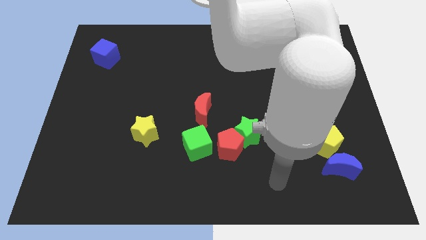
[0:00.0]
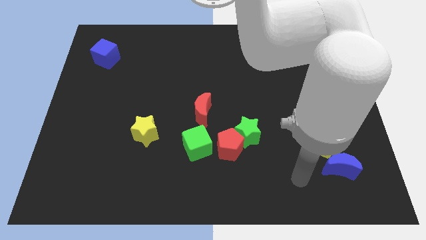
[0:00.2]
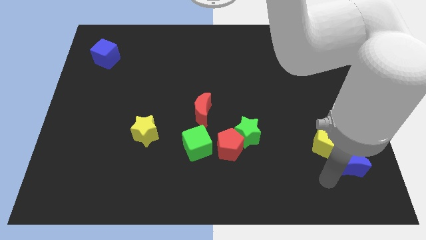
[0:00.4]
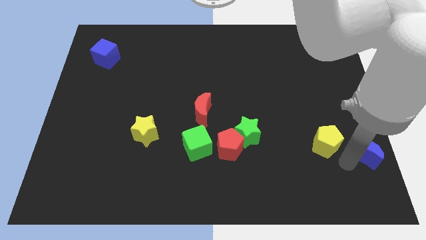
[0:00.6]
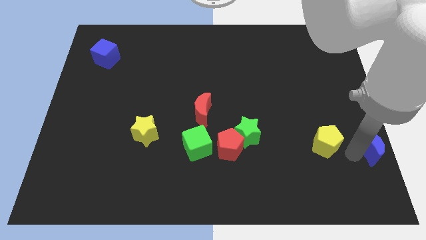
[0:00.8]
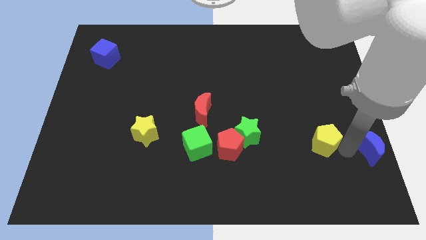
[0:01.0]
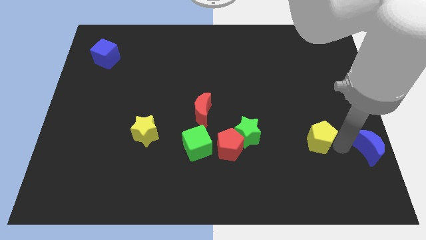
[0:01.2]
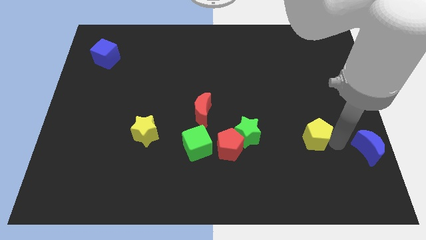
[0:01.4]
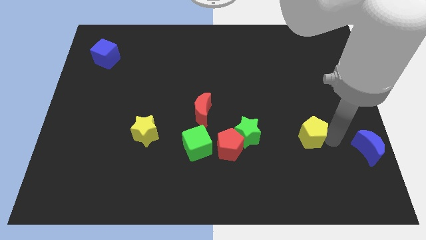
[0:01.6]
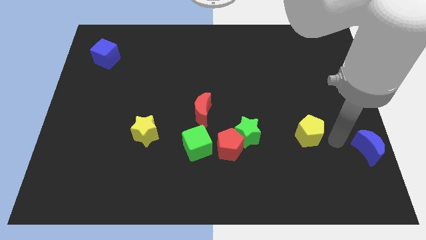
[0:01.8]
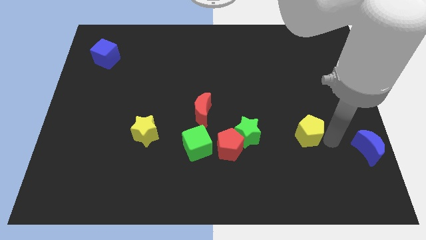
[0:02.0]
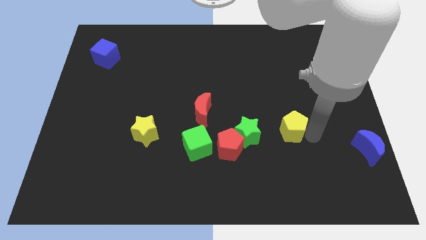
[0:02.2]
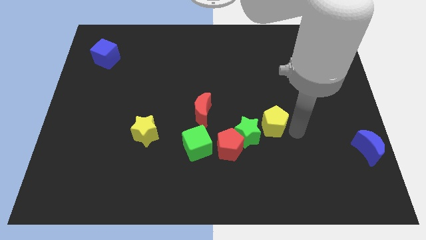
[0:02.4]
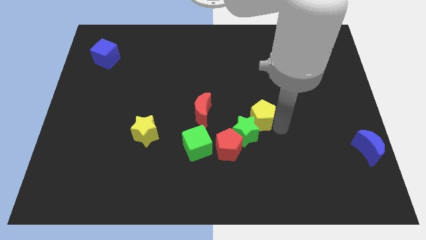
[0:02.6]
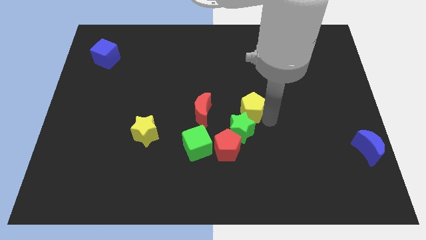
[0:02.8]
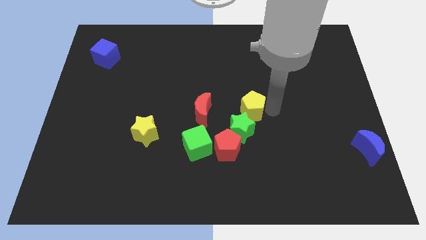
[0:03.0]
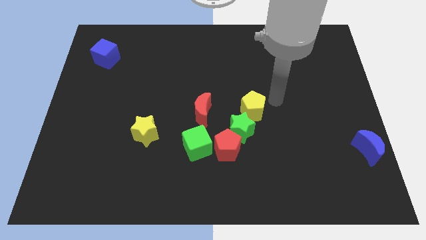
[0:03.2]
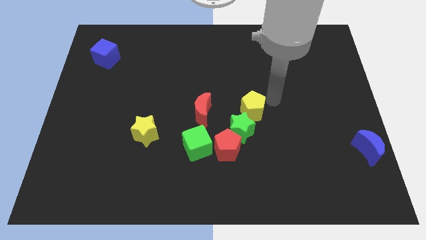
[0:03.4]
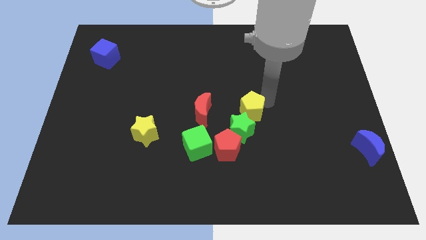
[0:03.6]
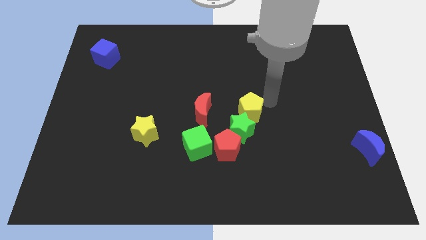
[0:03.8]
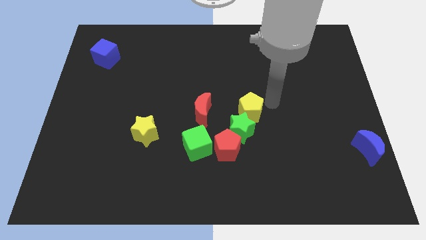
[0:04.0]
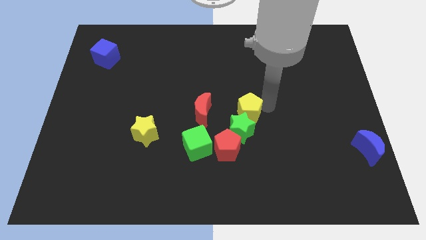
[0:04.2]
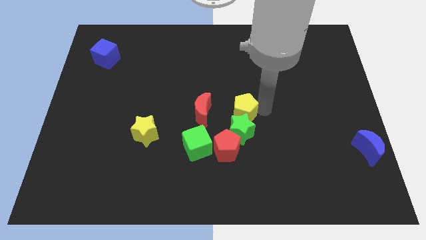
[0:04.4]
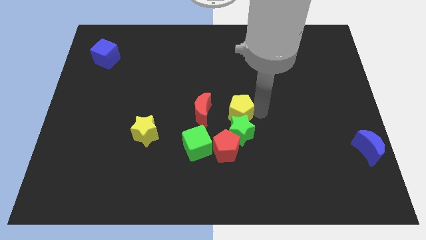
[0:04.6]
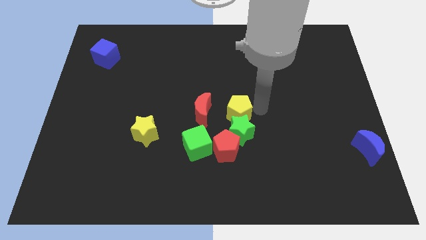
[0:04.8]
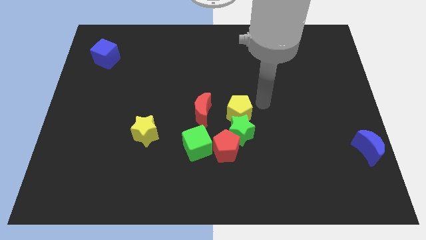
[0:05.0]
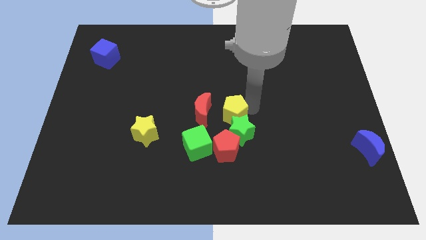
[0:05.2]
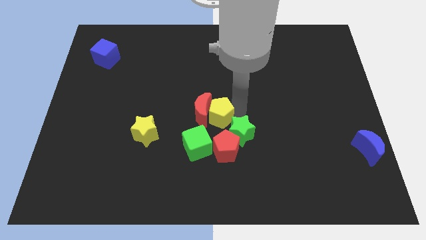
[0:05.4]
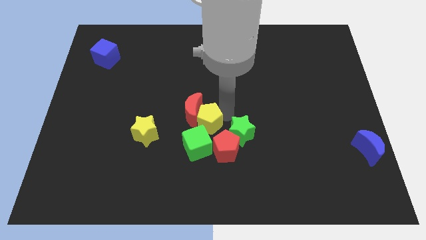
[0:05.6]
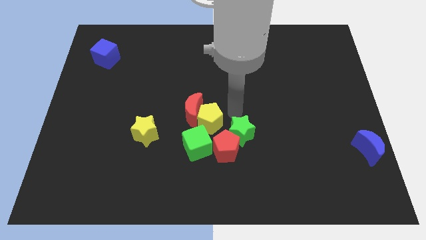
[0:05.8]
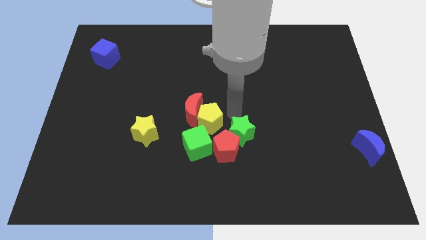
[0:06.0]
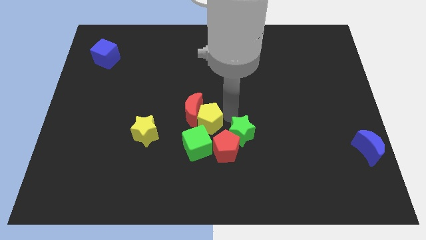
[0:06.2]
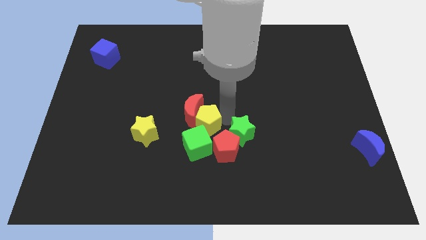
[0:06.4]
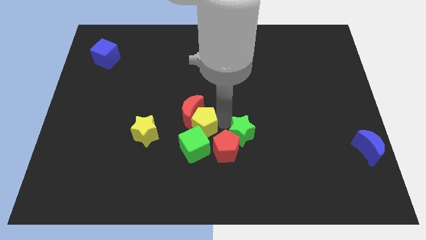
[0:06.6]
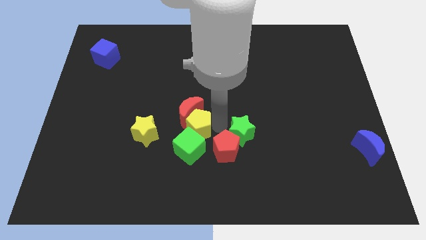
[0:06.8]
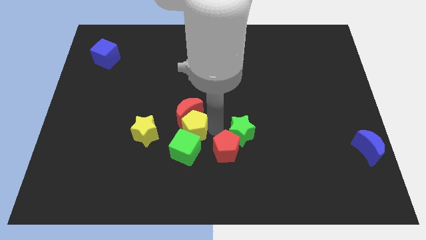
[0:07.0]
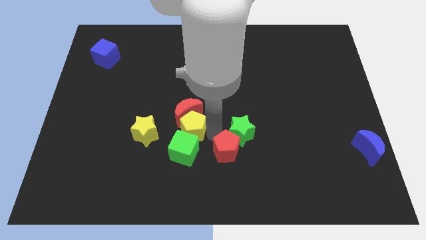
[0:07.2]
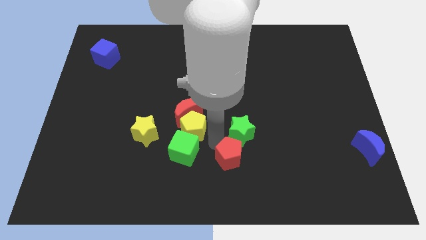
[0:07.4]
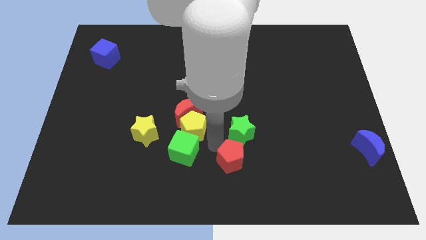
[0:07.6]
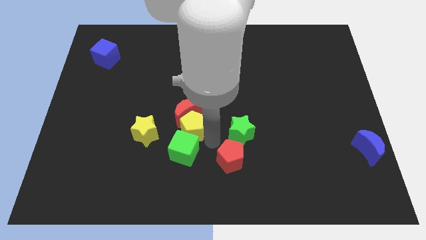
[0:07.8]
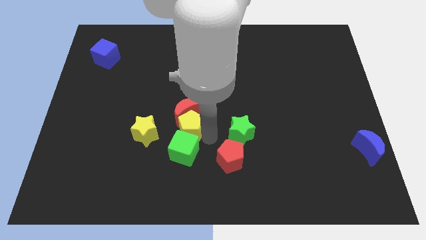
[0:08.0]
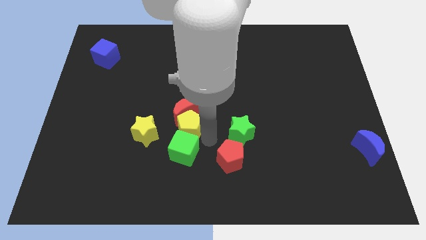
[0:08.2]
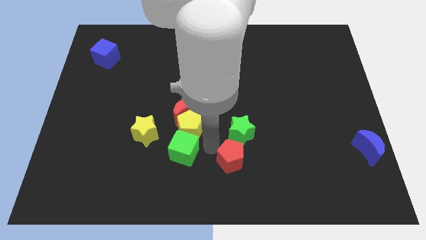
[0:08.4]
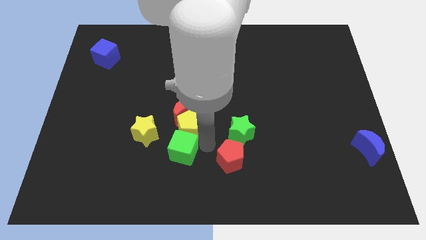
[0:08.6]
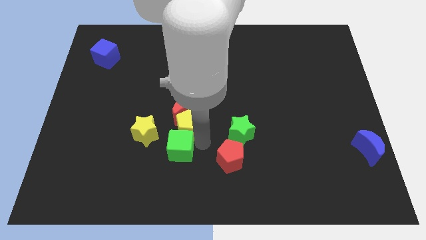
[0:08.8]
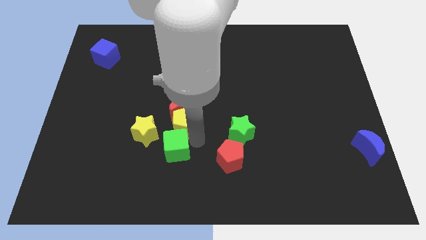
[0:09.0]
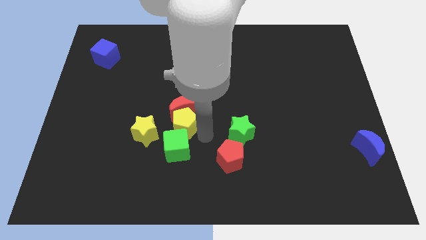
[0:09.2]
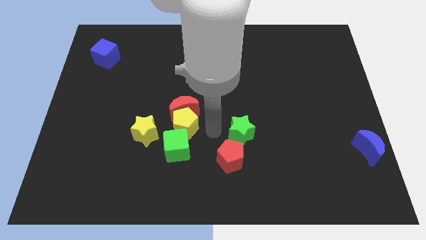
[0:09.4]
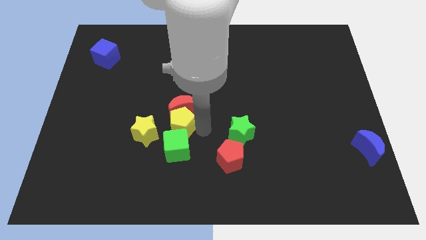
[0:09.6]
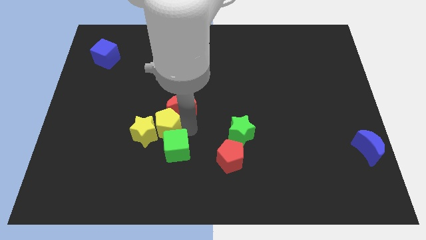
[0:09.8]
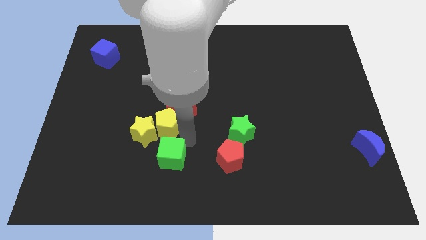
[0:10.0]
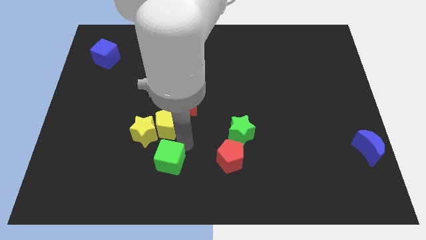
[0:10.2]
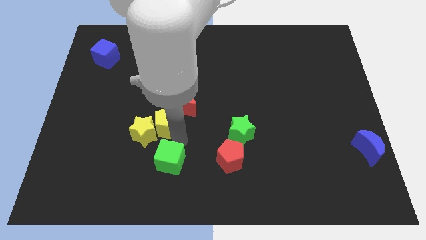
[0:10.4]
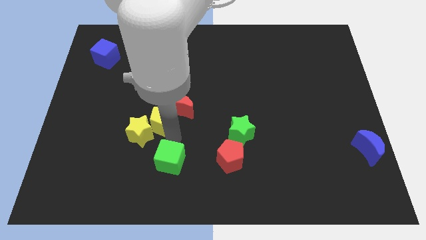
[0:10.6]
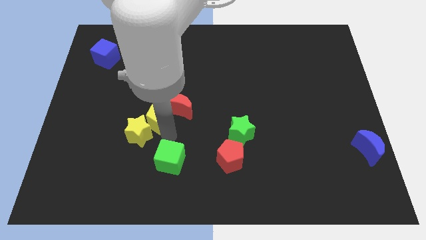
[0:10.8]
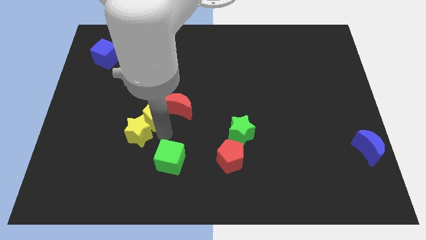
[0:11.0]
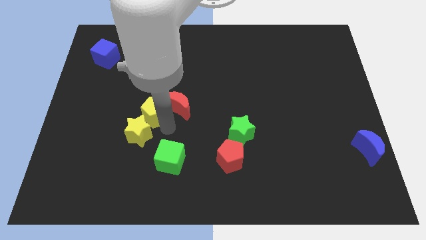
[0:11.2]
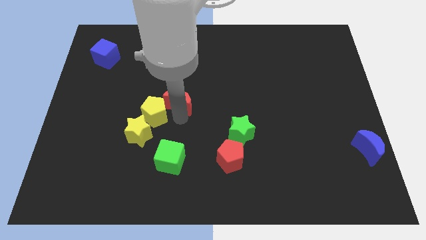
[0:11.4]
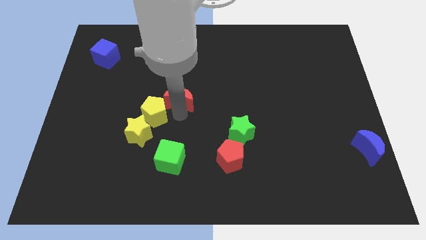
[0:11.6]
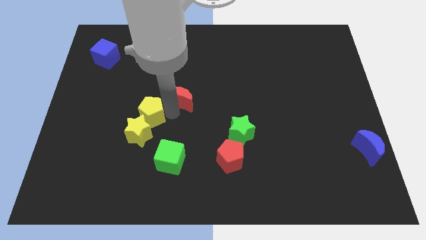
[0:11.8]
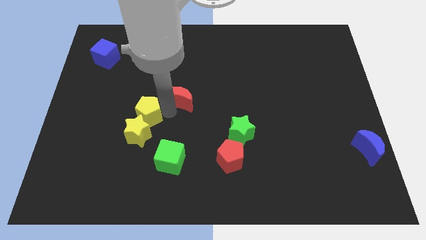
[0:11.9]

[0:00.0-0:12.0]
push the yellow pentagon diagonally up and to the left of the yellow star

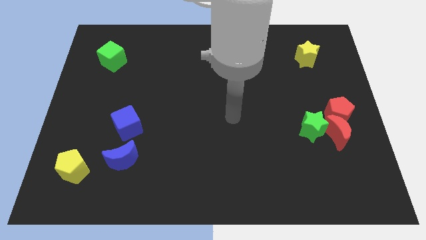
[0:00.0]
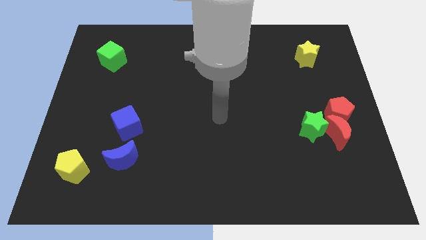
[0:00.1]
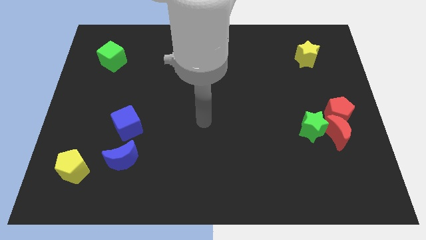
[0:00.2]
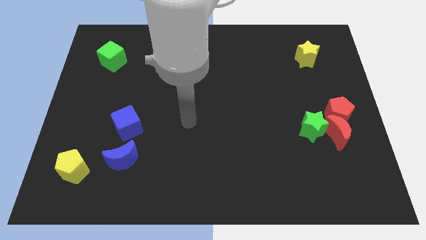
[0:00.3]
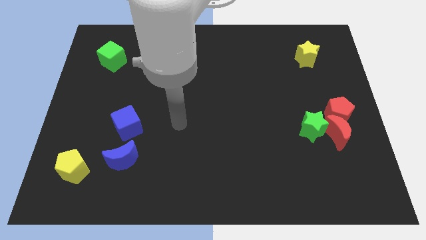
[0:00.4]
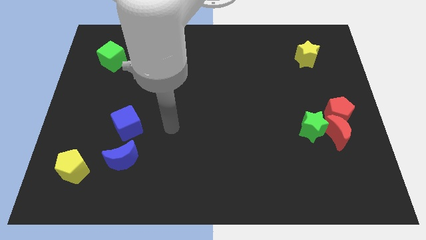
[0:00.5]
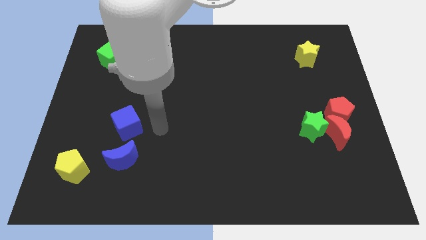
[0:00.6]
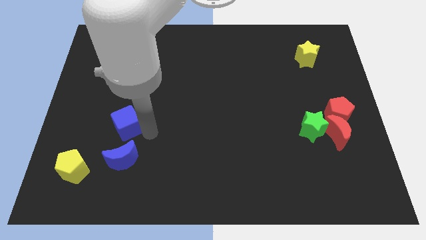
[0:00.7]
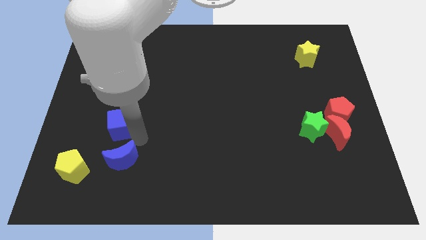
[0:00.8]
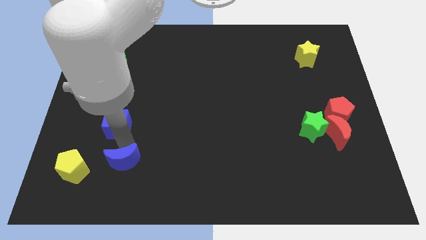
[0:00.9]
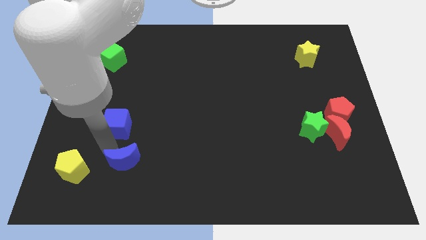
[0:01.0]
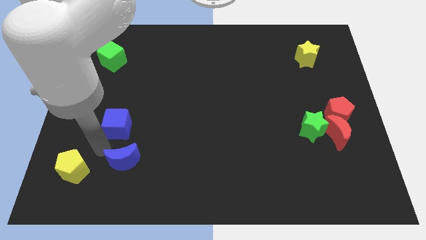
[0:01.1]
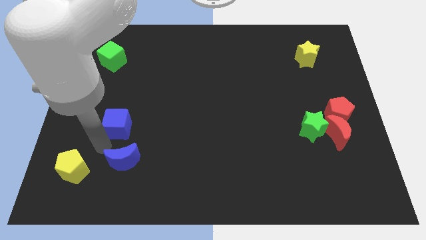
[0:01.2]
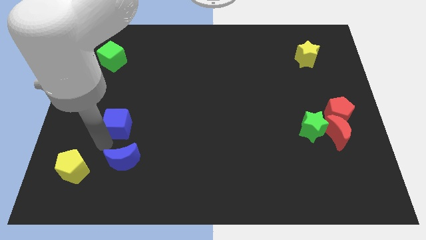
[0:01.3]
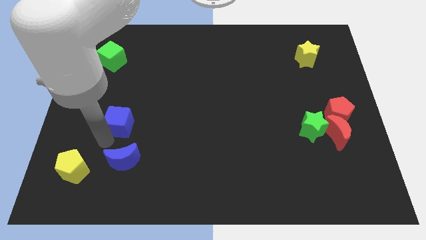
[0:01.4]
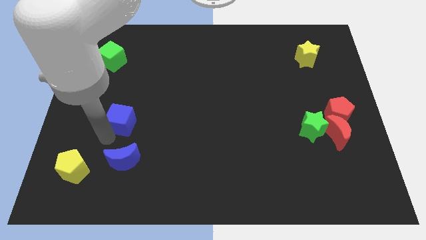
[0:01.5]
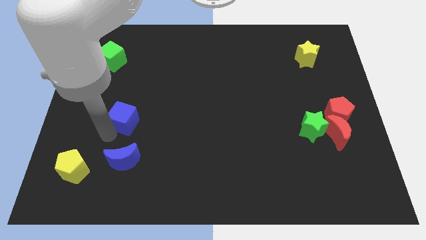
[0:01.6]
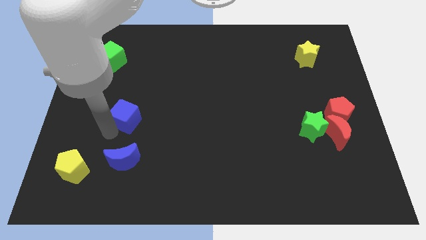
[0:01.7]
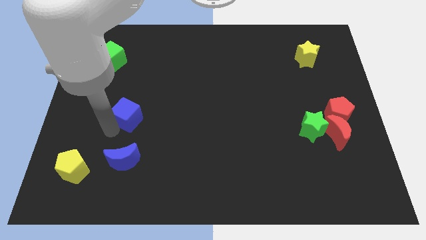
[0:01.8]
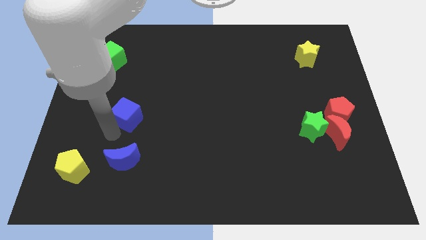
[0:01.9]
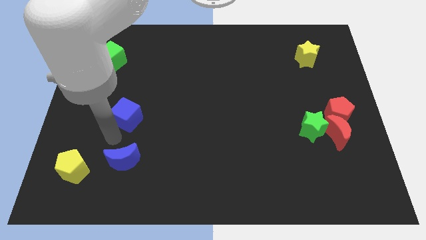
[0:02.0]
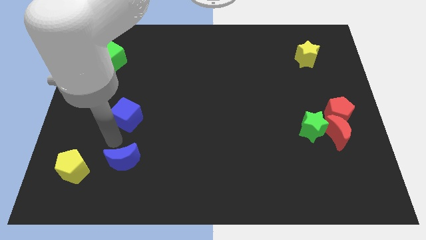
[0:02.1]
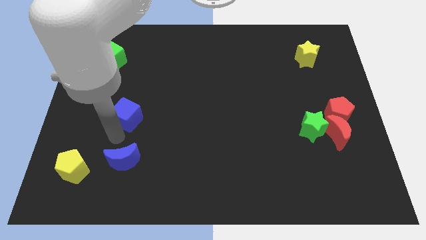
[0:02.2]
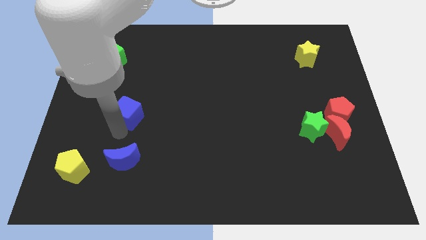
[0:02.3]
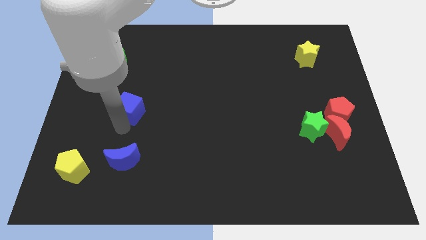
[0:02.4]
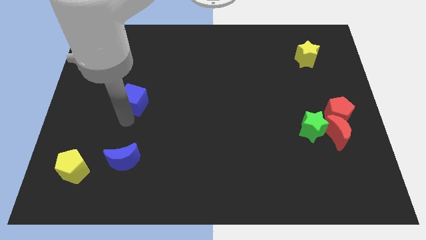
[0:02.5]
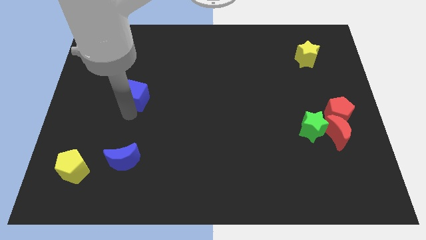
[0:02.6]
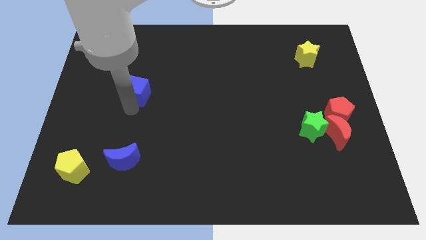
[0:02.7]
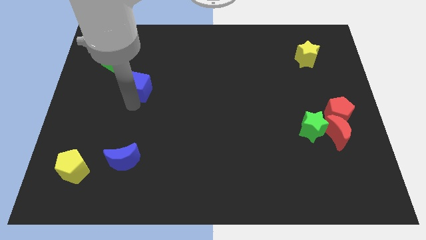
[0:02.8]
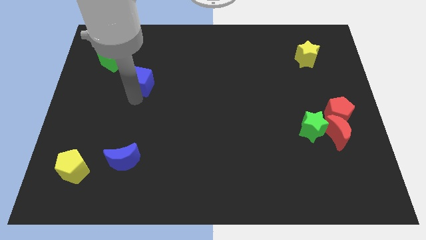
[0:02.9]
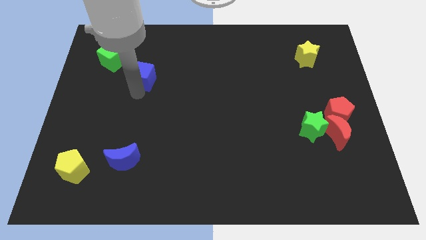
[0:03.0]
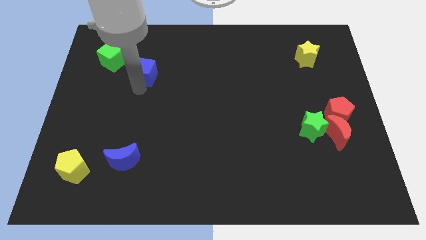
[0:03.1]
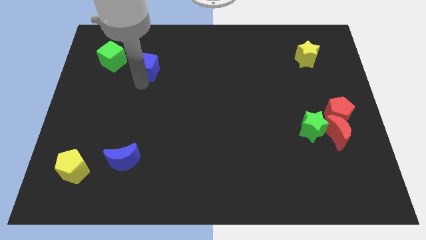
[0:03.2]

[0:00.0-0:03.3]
slide the blue cube to the right side of the green cube
